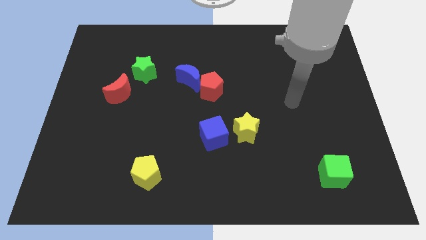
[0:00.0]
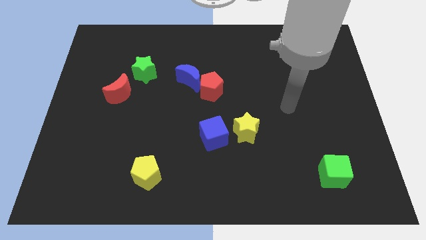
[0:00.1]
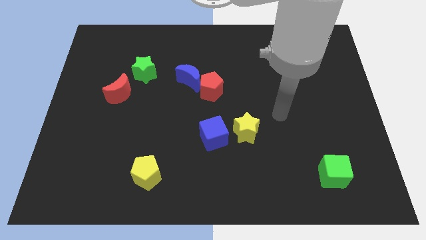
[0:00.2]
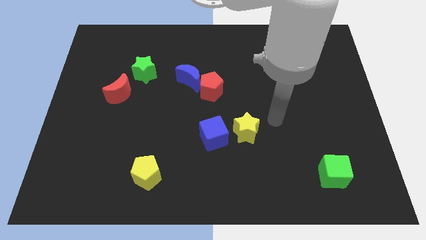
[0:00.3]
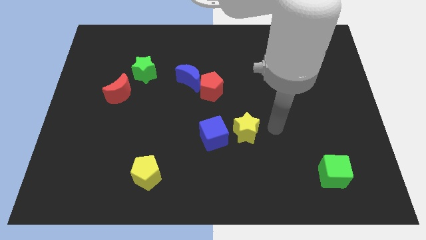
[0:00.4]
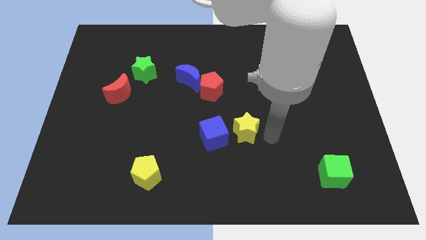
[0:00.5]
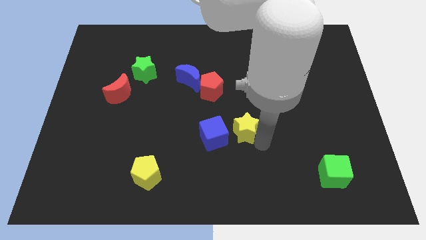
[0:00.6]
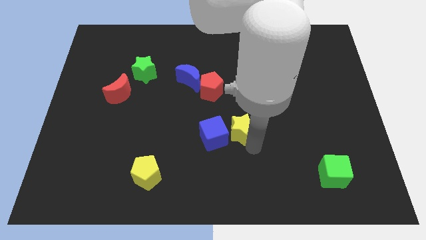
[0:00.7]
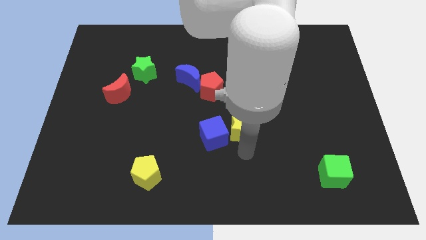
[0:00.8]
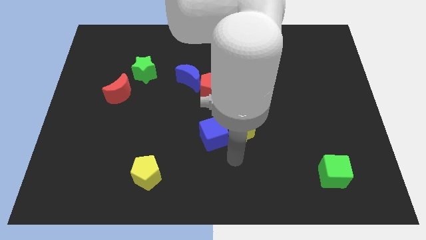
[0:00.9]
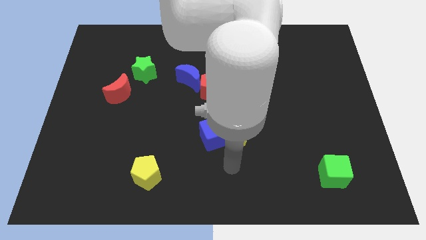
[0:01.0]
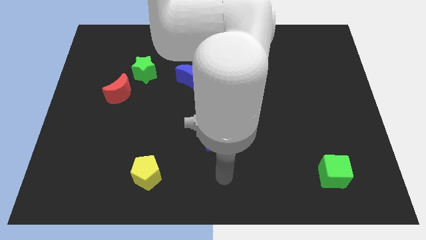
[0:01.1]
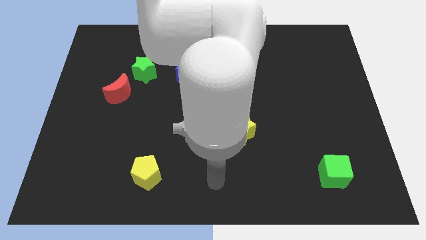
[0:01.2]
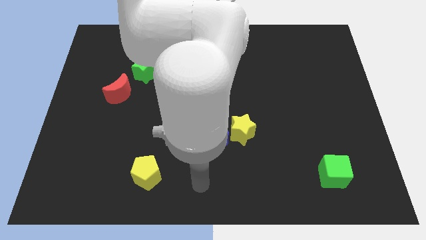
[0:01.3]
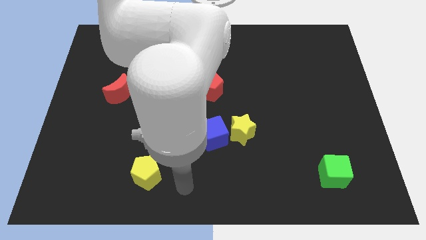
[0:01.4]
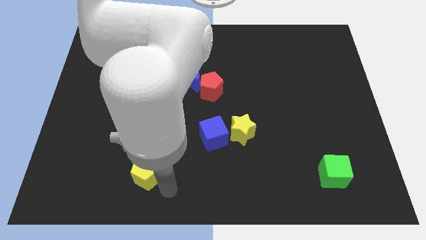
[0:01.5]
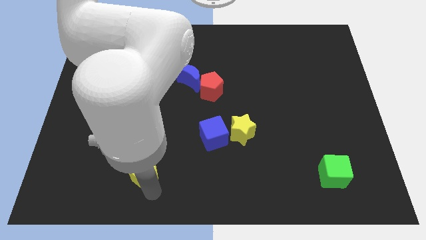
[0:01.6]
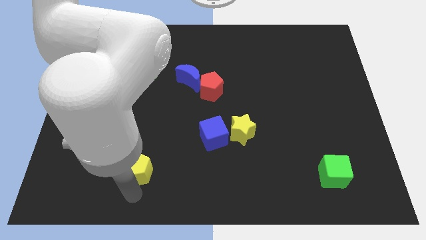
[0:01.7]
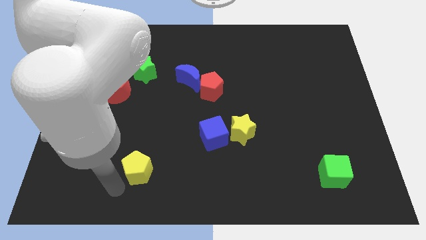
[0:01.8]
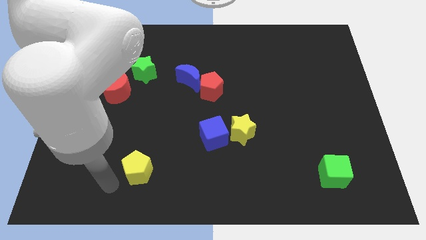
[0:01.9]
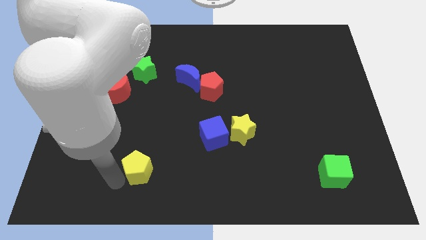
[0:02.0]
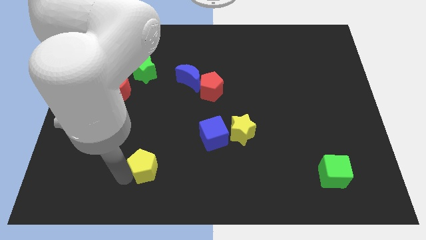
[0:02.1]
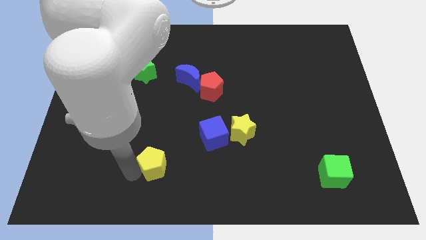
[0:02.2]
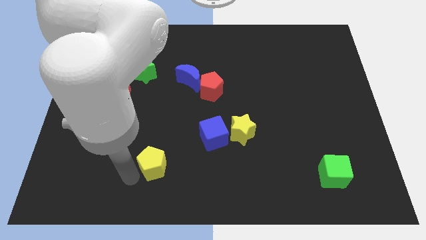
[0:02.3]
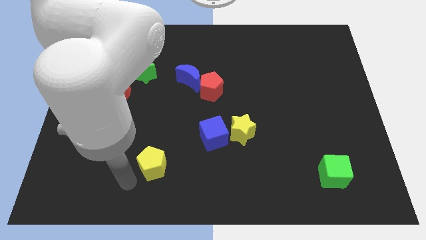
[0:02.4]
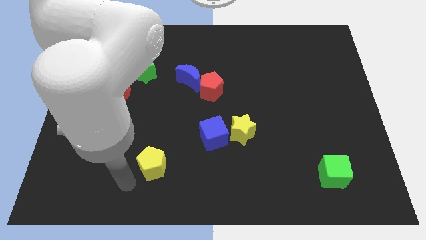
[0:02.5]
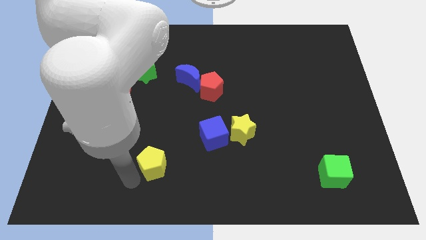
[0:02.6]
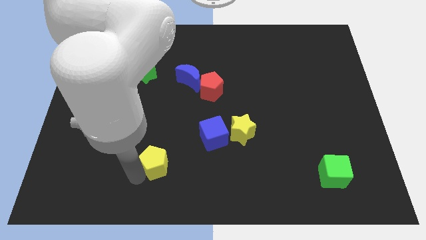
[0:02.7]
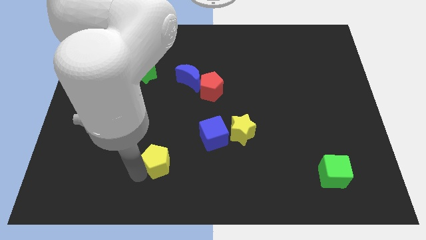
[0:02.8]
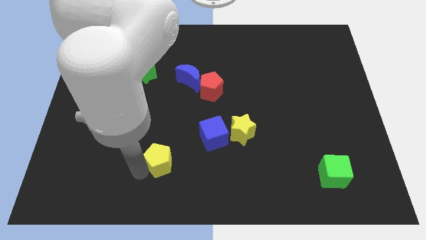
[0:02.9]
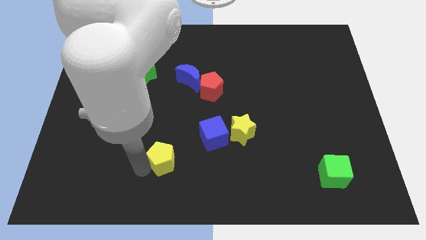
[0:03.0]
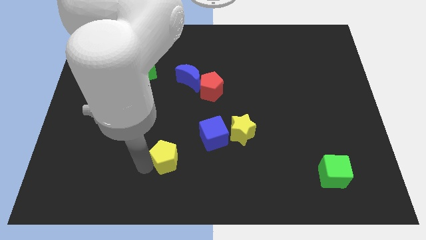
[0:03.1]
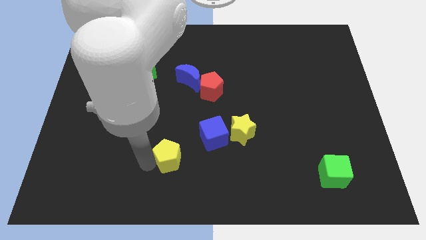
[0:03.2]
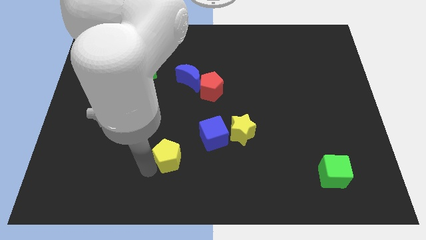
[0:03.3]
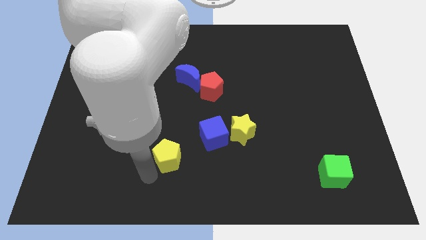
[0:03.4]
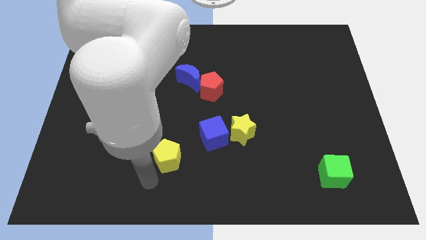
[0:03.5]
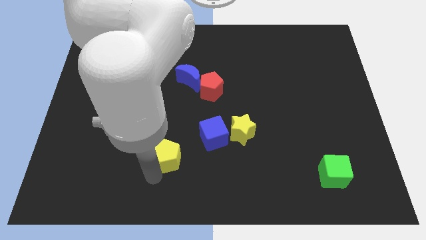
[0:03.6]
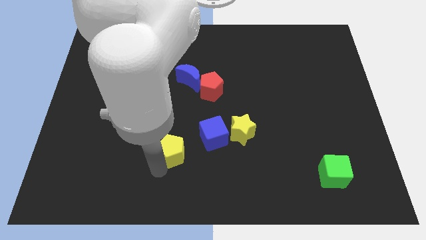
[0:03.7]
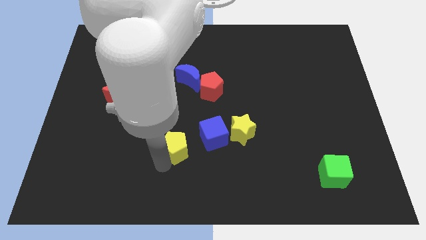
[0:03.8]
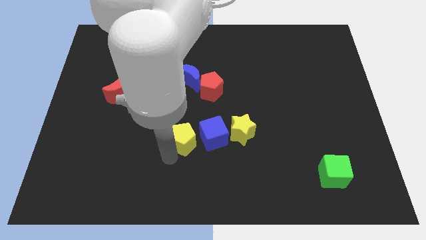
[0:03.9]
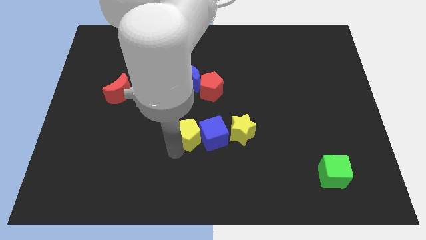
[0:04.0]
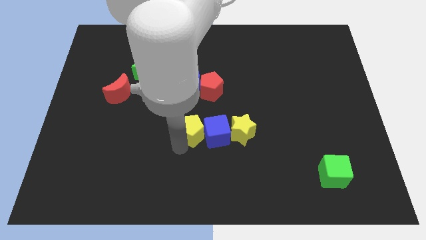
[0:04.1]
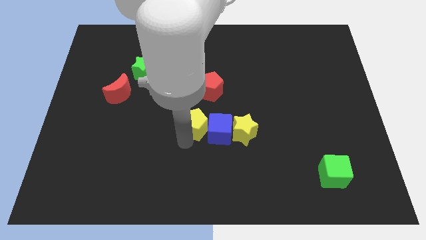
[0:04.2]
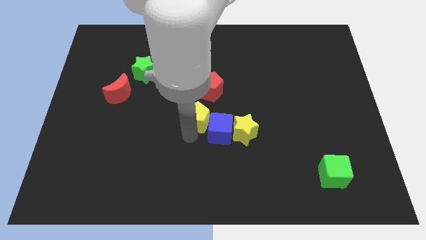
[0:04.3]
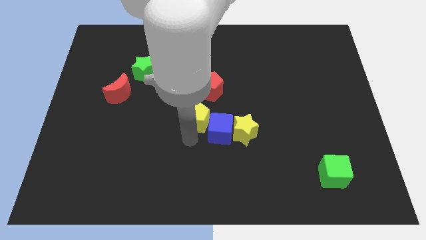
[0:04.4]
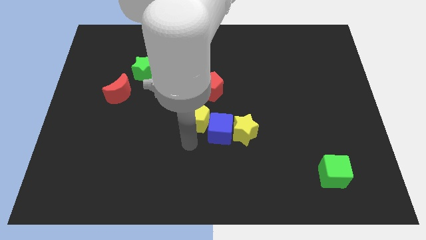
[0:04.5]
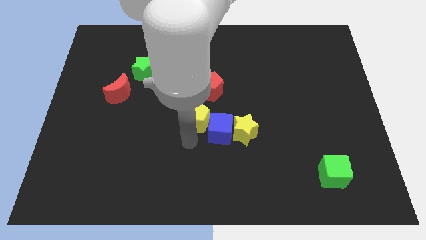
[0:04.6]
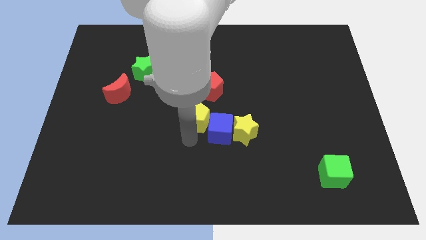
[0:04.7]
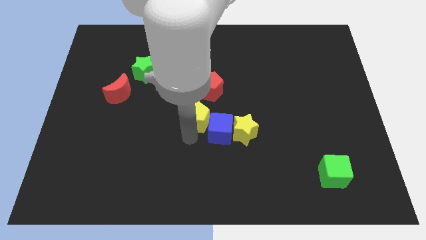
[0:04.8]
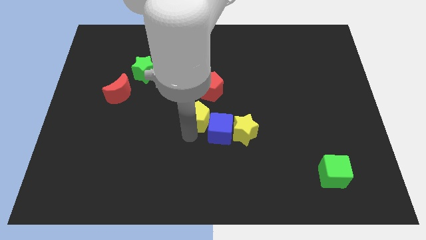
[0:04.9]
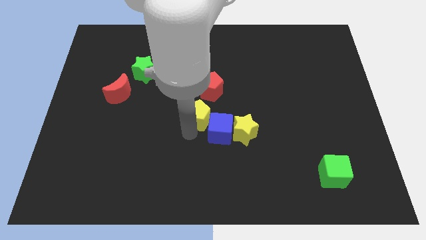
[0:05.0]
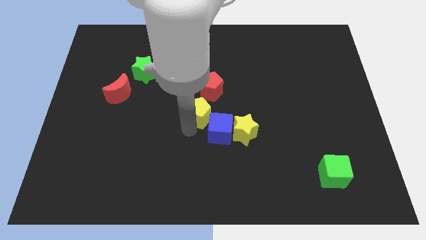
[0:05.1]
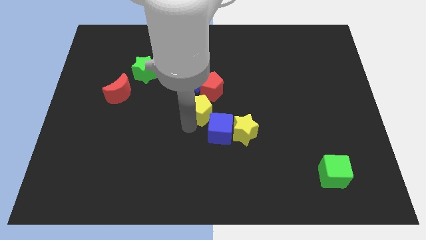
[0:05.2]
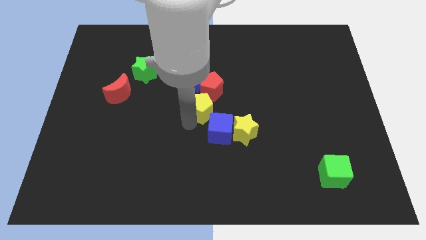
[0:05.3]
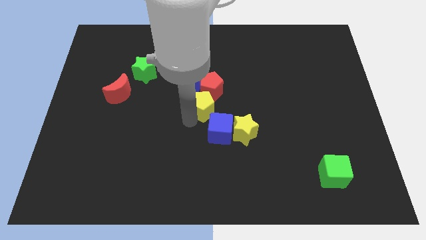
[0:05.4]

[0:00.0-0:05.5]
push the yellow pentagon next to the red pentagon

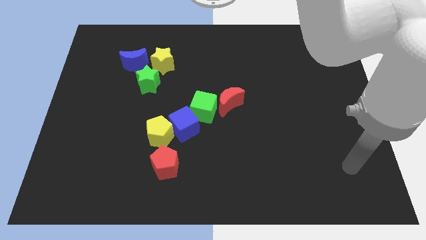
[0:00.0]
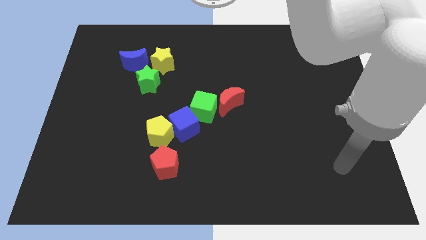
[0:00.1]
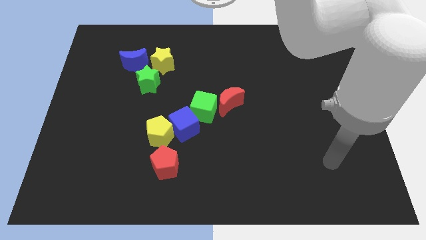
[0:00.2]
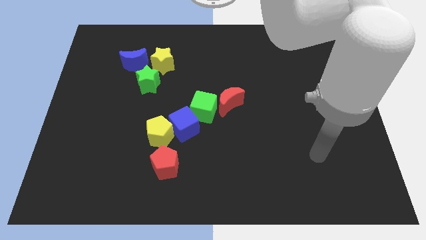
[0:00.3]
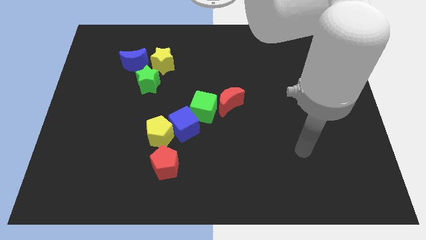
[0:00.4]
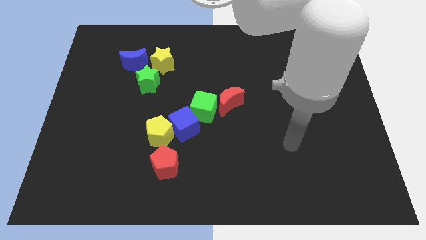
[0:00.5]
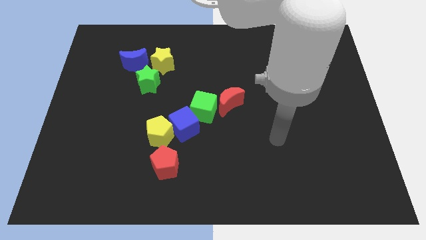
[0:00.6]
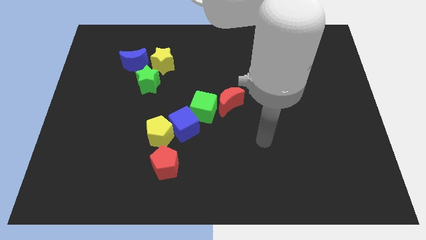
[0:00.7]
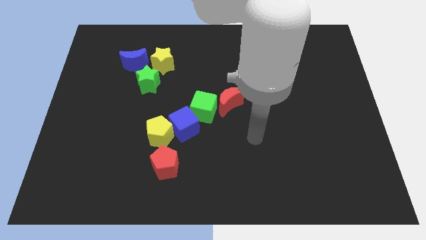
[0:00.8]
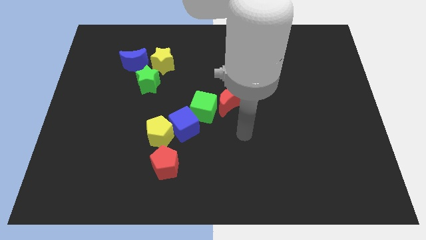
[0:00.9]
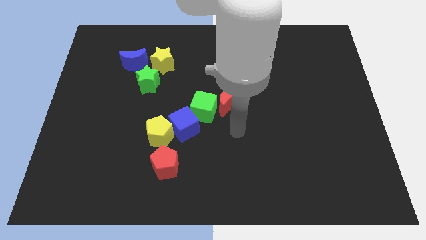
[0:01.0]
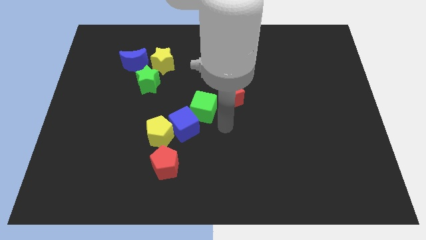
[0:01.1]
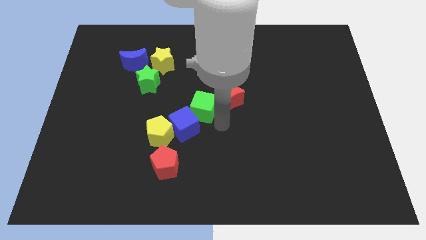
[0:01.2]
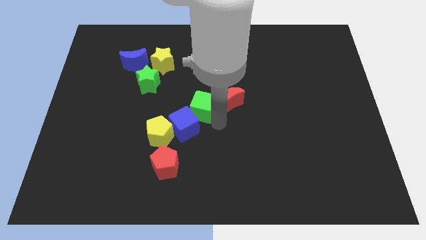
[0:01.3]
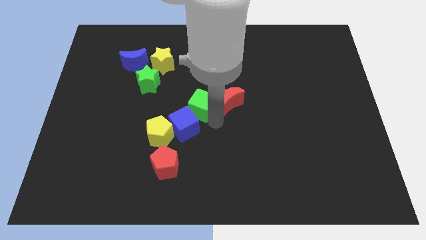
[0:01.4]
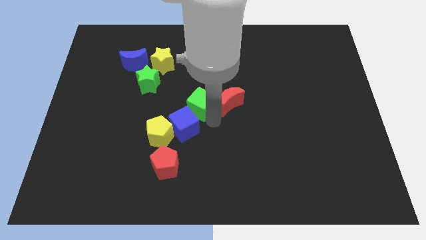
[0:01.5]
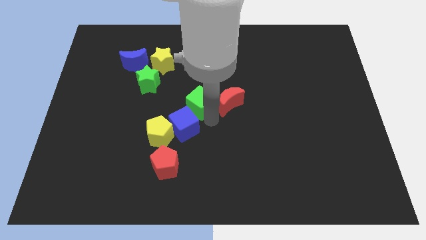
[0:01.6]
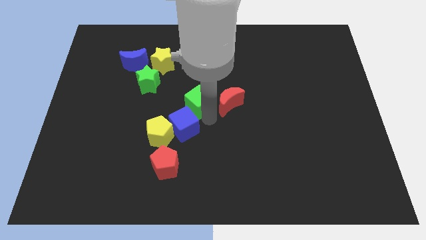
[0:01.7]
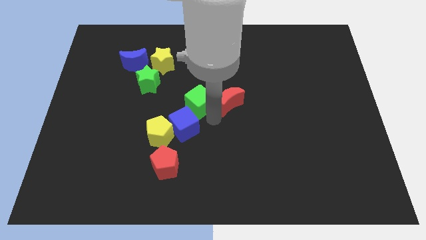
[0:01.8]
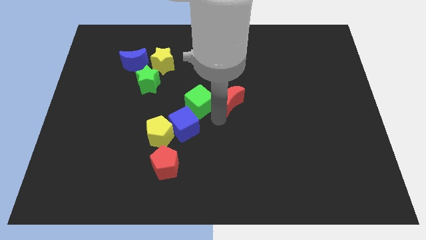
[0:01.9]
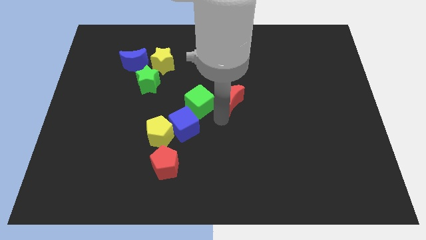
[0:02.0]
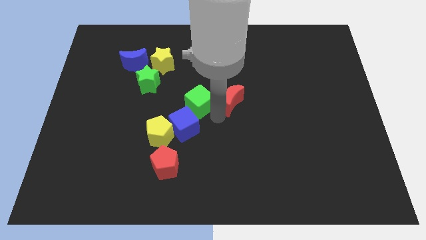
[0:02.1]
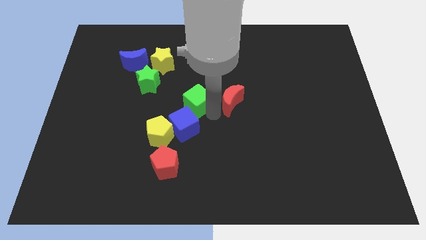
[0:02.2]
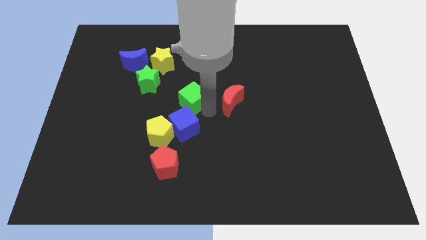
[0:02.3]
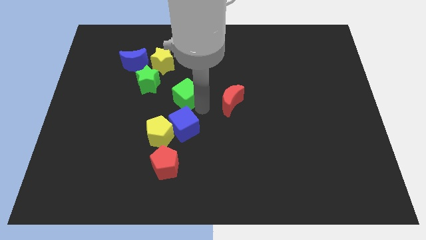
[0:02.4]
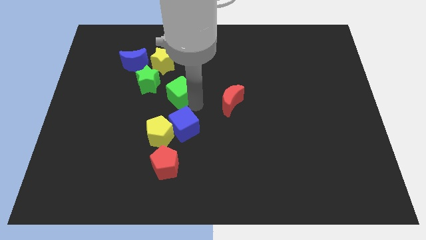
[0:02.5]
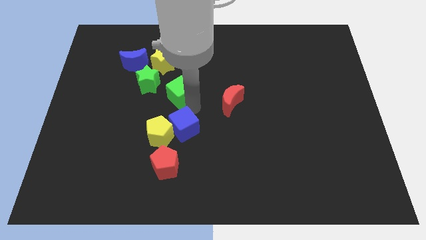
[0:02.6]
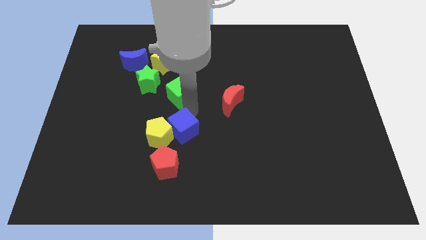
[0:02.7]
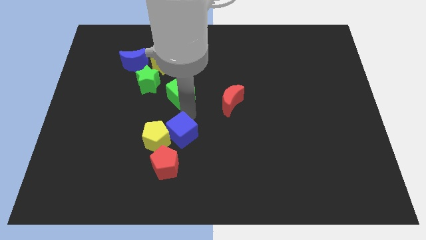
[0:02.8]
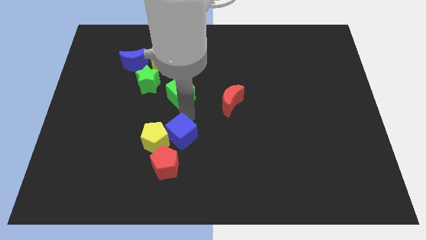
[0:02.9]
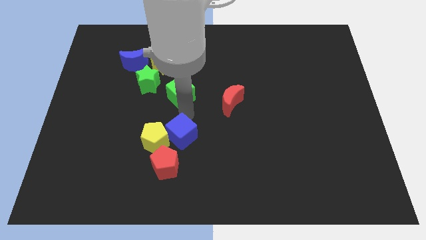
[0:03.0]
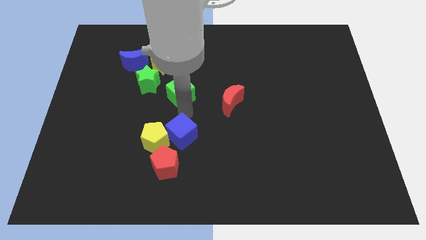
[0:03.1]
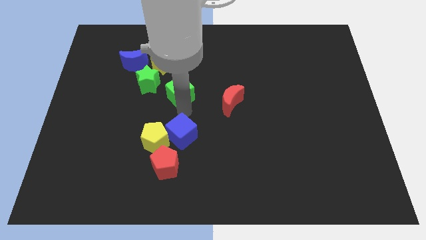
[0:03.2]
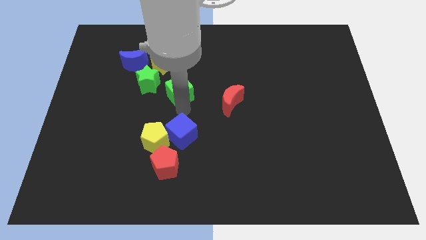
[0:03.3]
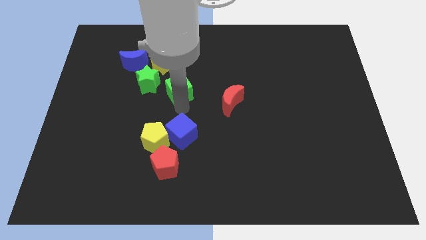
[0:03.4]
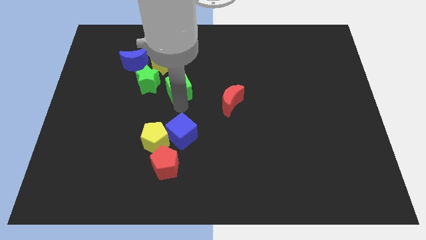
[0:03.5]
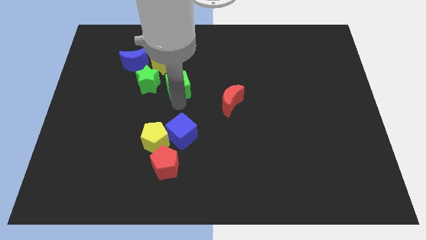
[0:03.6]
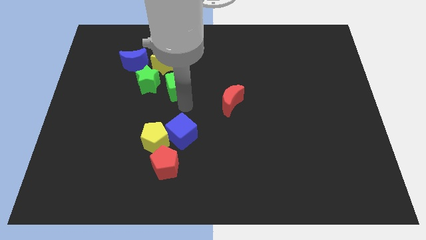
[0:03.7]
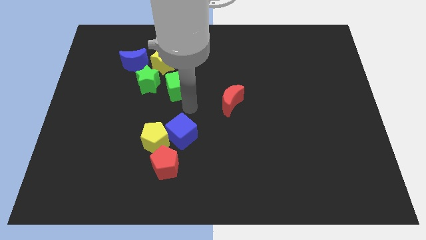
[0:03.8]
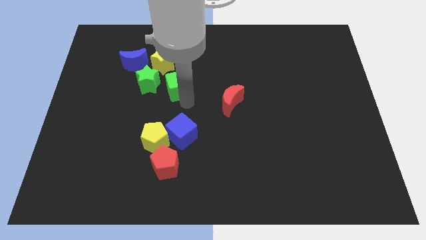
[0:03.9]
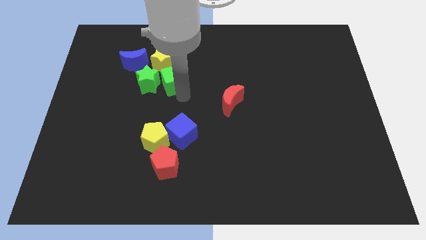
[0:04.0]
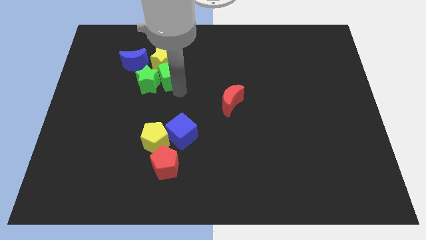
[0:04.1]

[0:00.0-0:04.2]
put the green cube next to the yellow star
